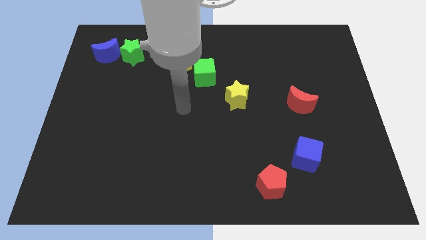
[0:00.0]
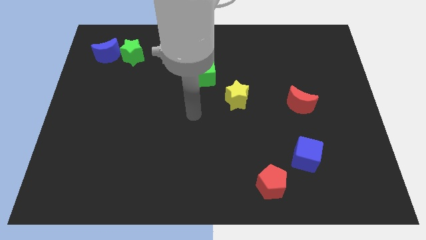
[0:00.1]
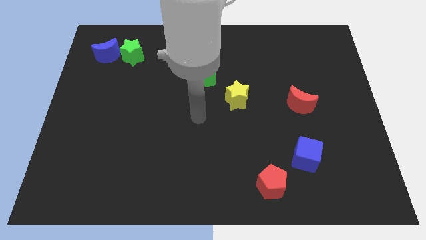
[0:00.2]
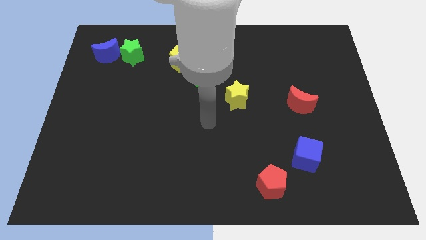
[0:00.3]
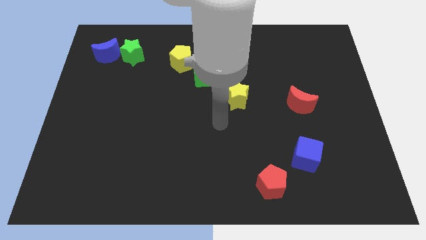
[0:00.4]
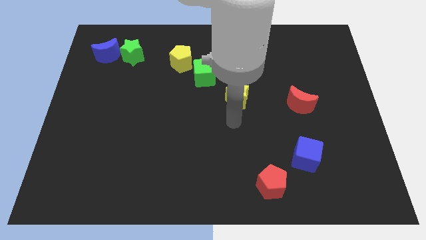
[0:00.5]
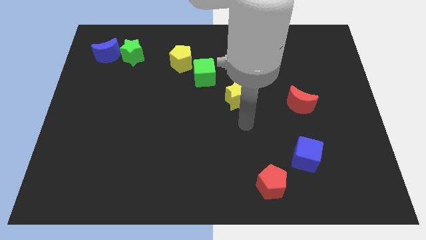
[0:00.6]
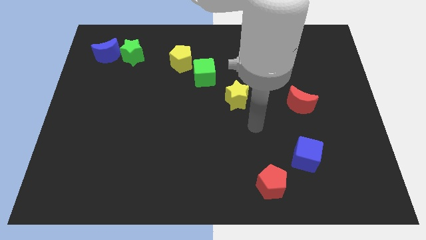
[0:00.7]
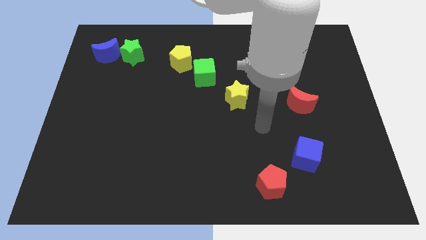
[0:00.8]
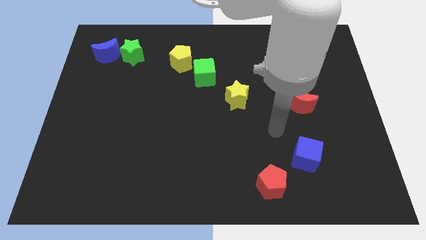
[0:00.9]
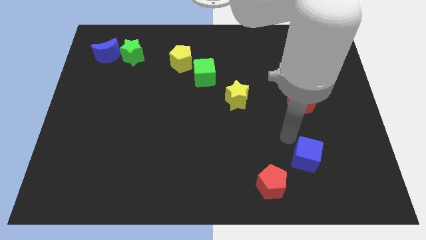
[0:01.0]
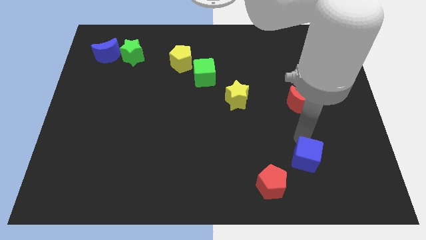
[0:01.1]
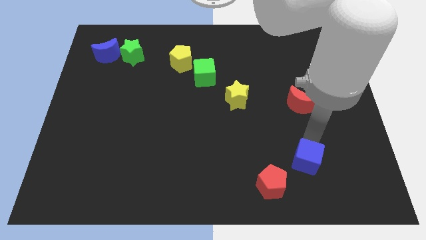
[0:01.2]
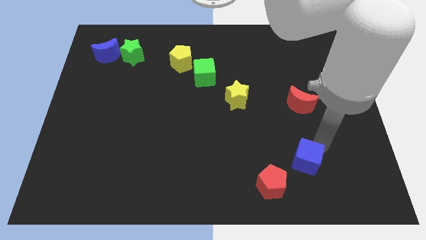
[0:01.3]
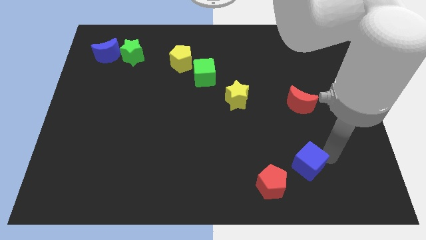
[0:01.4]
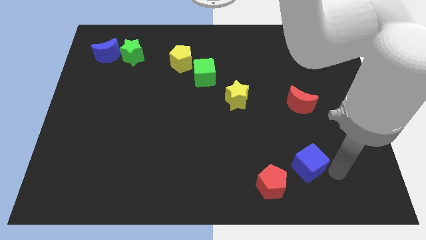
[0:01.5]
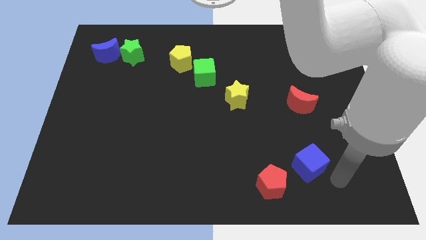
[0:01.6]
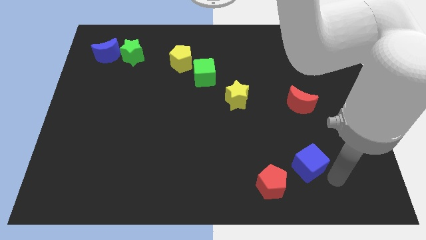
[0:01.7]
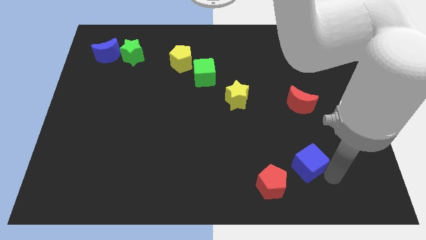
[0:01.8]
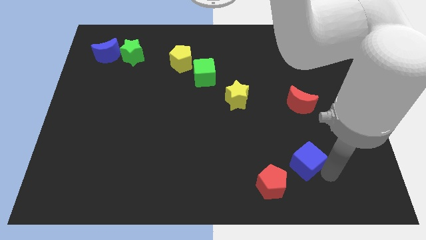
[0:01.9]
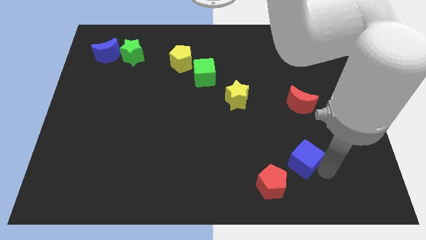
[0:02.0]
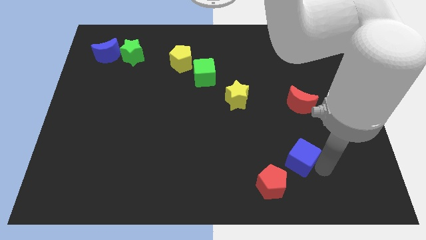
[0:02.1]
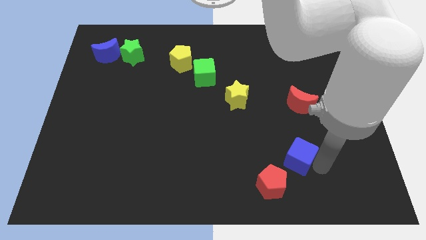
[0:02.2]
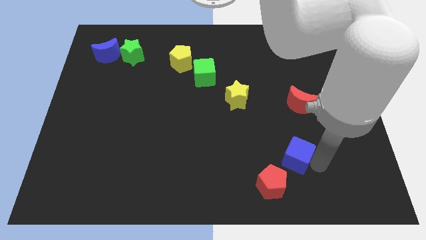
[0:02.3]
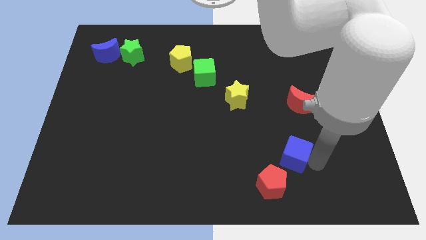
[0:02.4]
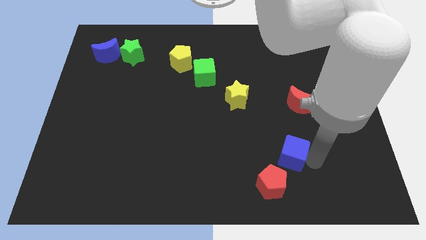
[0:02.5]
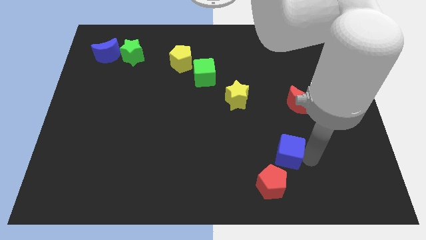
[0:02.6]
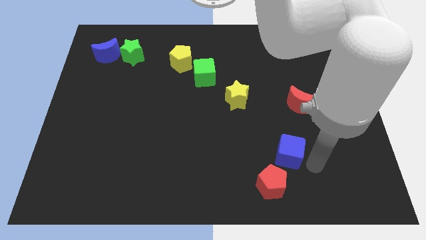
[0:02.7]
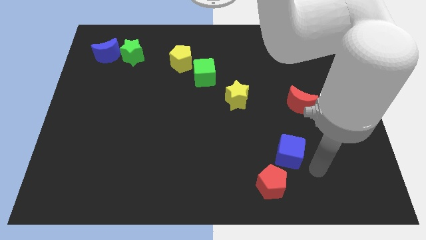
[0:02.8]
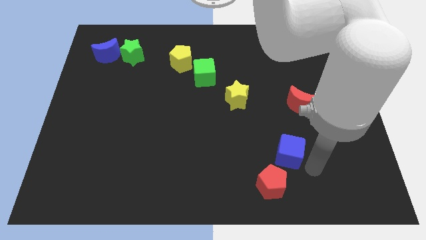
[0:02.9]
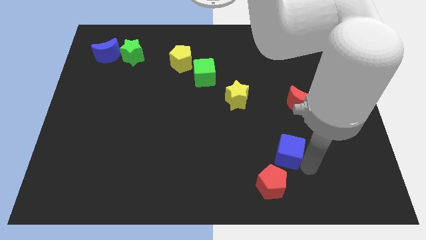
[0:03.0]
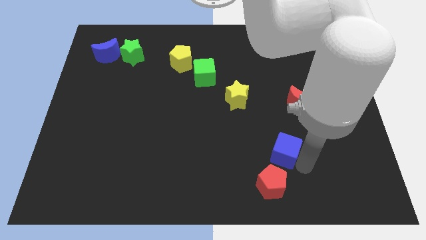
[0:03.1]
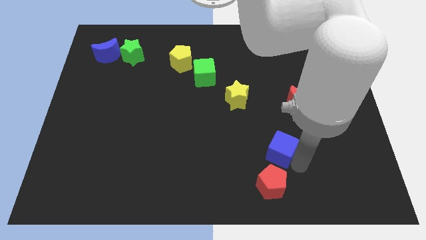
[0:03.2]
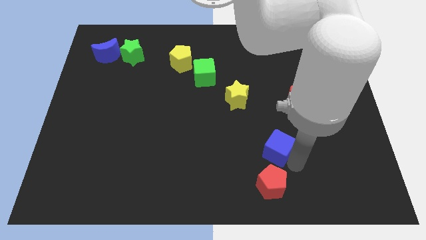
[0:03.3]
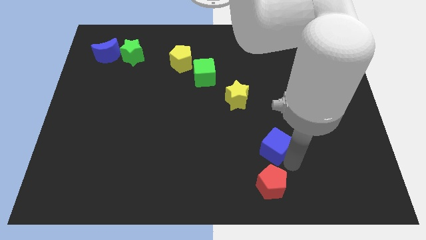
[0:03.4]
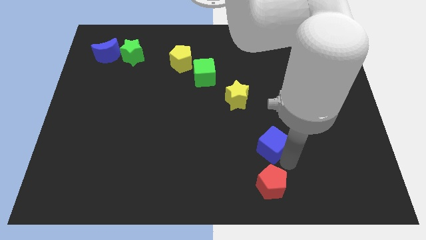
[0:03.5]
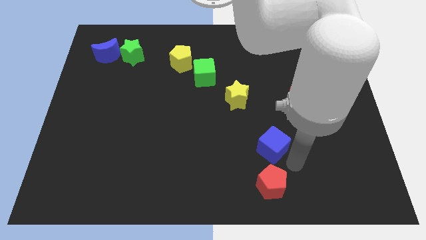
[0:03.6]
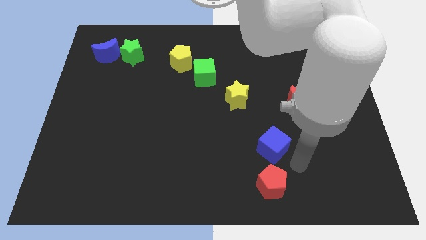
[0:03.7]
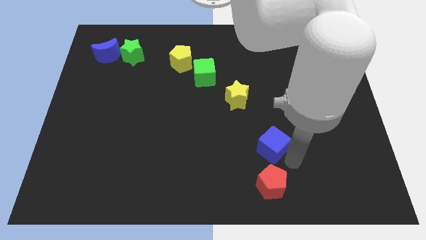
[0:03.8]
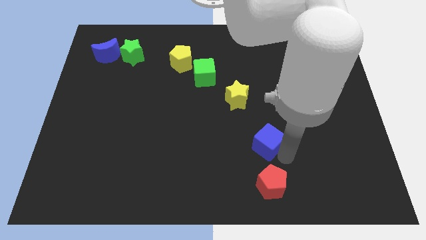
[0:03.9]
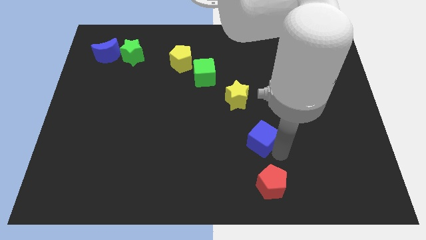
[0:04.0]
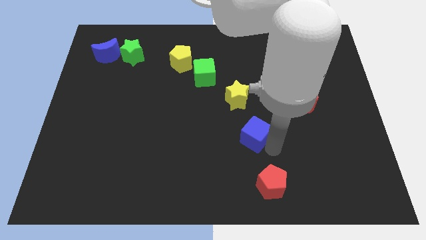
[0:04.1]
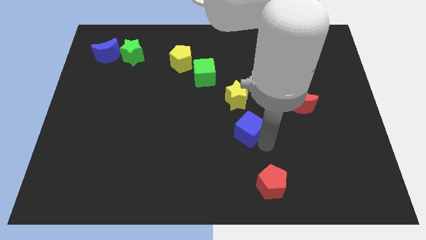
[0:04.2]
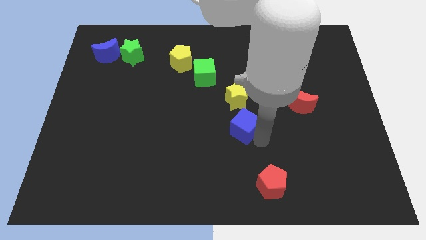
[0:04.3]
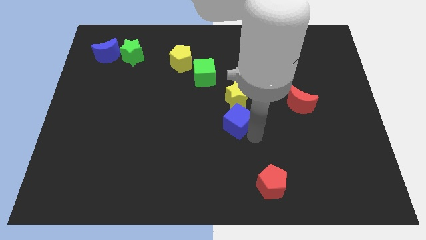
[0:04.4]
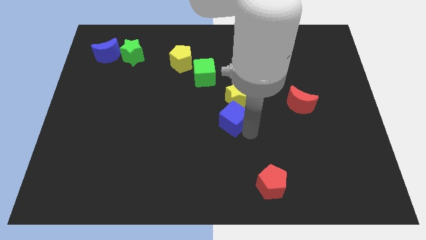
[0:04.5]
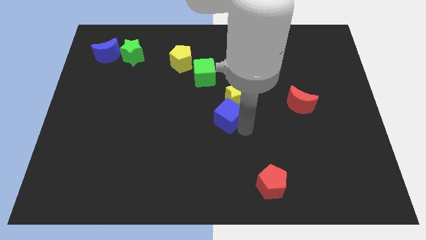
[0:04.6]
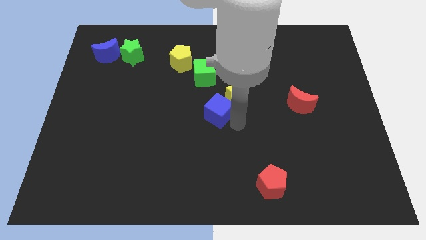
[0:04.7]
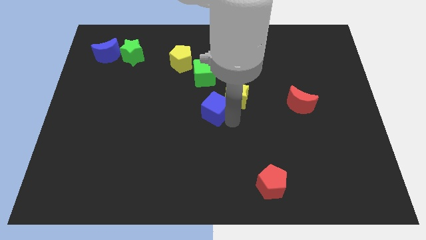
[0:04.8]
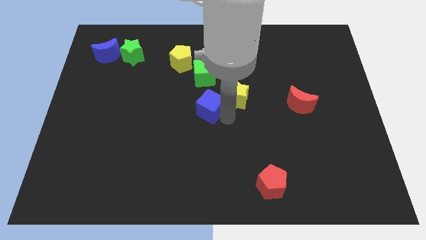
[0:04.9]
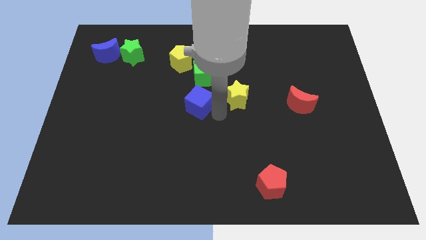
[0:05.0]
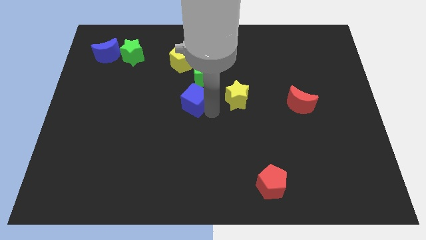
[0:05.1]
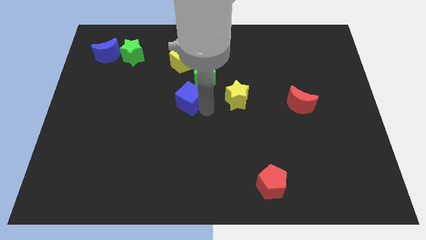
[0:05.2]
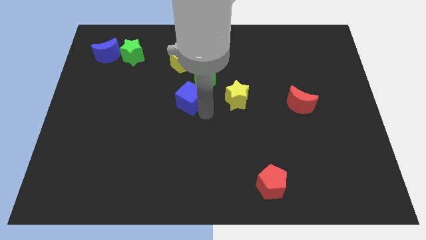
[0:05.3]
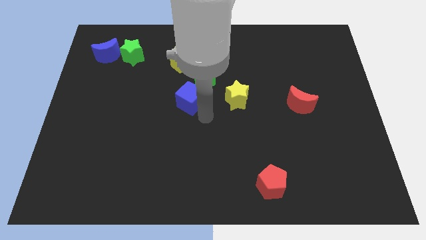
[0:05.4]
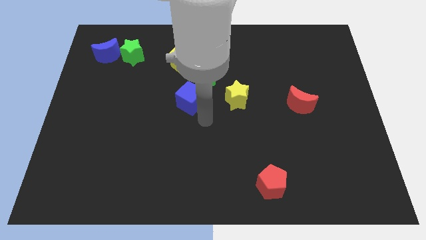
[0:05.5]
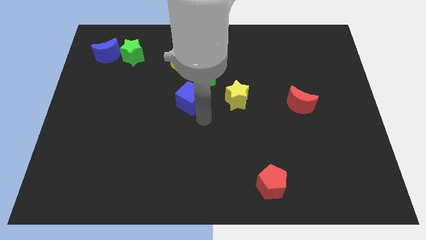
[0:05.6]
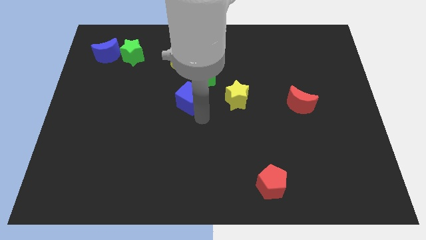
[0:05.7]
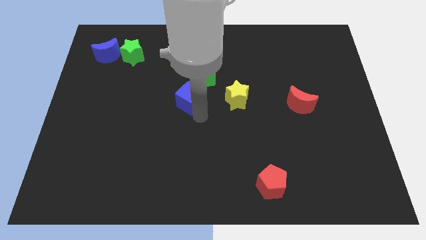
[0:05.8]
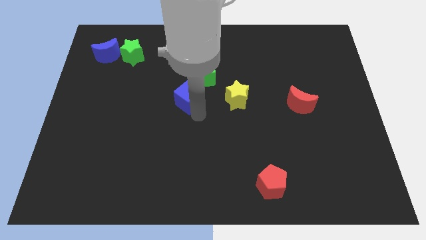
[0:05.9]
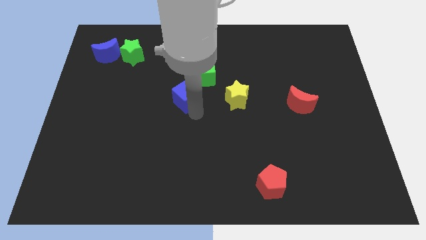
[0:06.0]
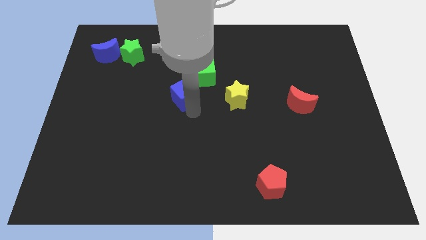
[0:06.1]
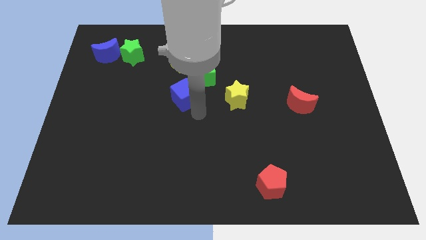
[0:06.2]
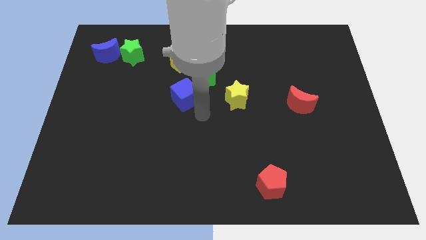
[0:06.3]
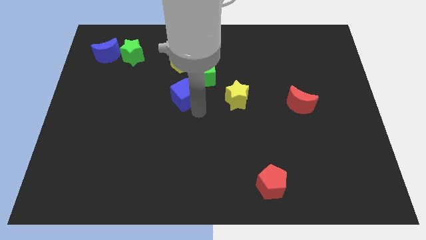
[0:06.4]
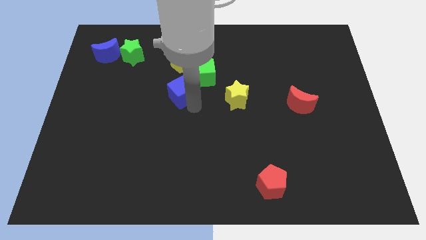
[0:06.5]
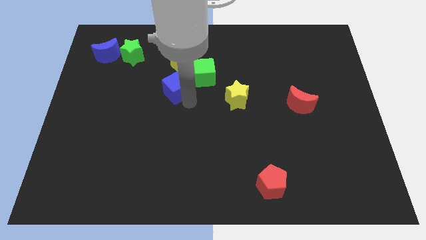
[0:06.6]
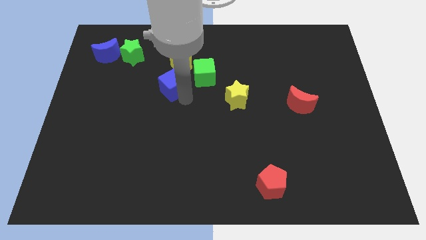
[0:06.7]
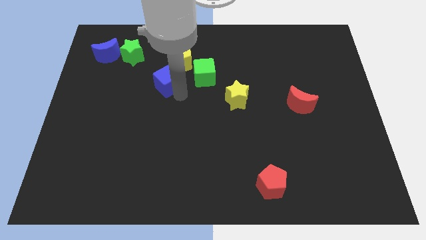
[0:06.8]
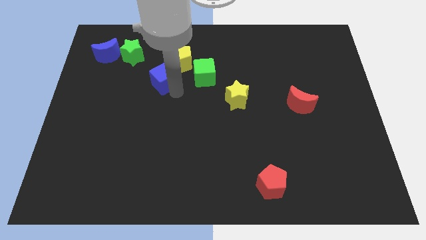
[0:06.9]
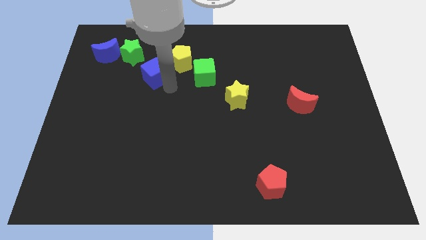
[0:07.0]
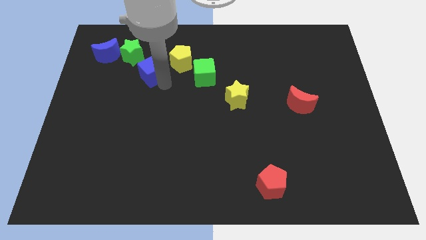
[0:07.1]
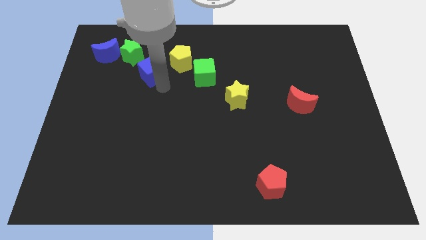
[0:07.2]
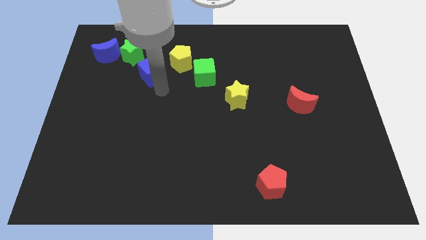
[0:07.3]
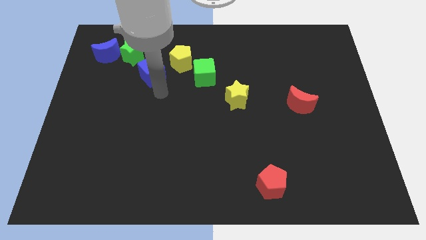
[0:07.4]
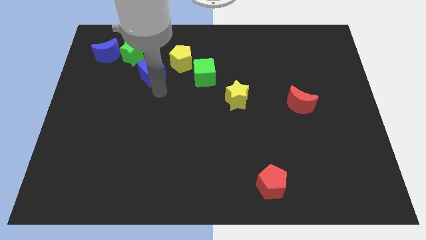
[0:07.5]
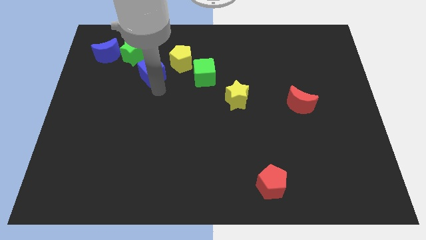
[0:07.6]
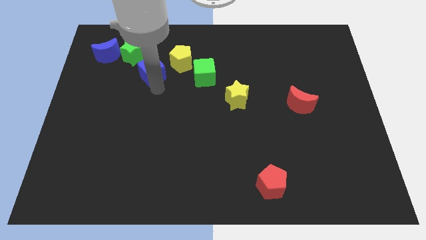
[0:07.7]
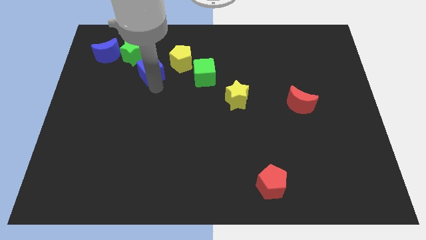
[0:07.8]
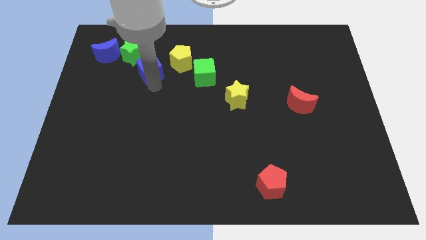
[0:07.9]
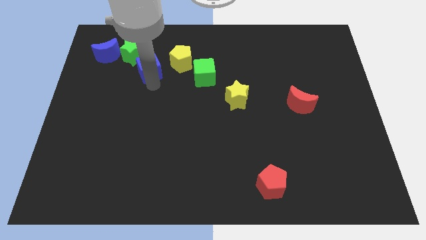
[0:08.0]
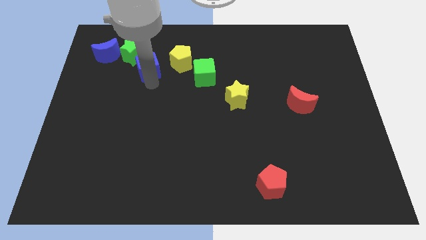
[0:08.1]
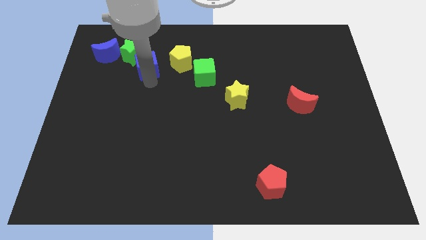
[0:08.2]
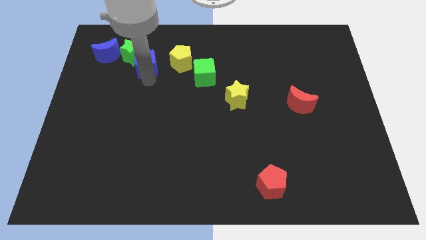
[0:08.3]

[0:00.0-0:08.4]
push the blue cube towards the green star
